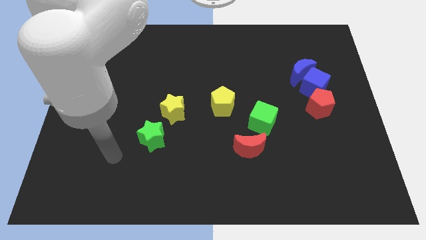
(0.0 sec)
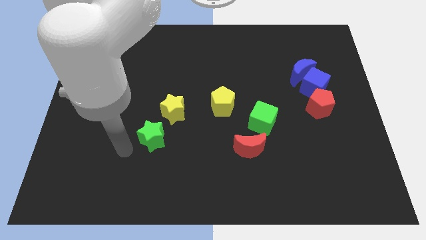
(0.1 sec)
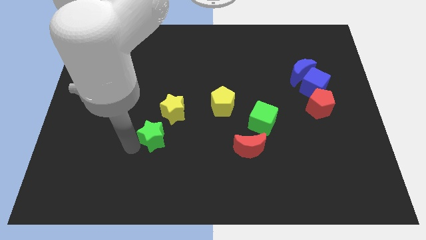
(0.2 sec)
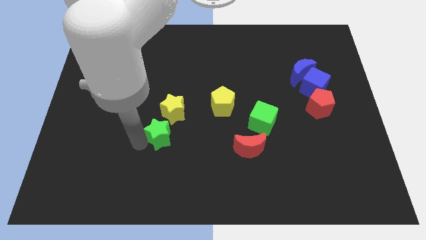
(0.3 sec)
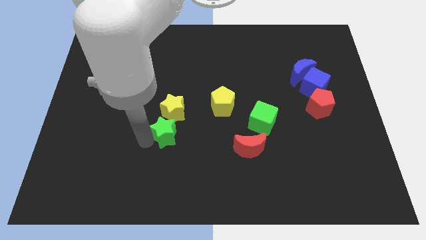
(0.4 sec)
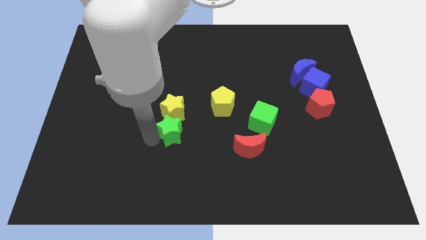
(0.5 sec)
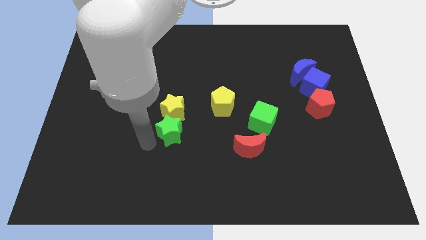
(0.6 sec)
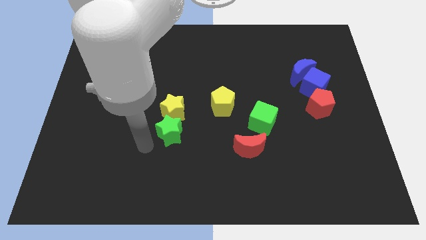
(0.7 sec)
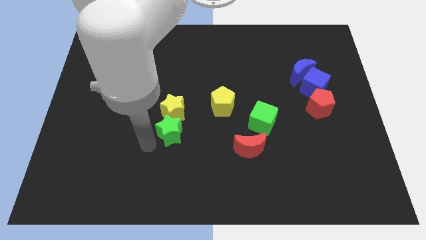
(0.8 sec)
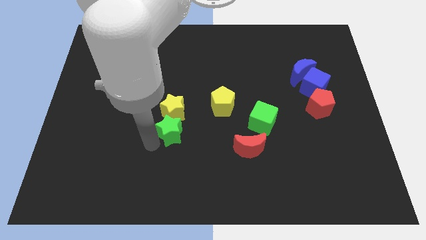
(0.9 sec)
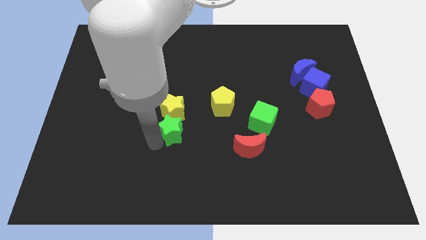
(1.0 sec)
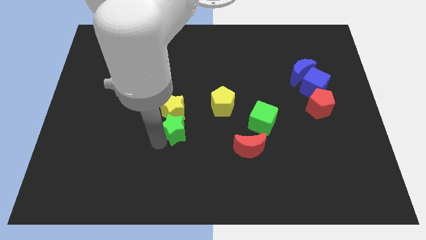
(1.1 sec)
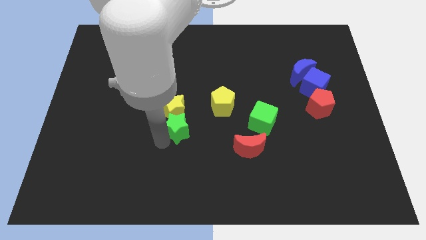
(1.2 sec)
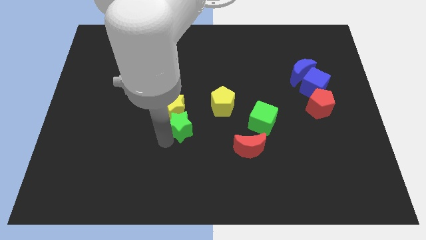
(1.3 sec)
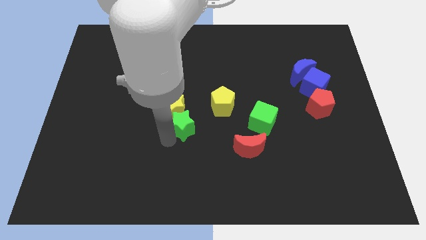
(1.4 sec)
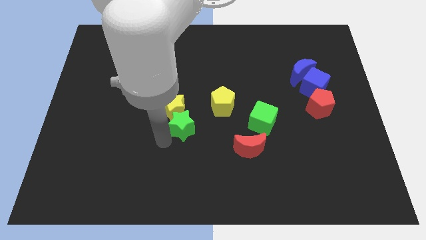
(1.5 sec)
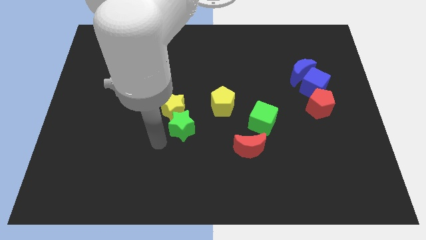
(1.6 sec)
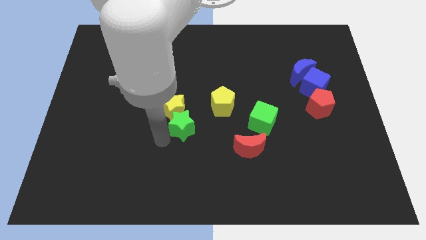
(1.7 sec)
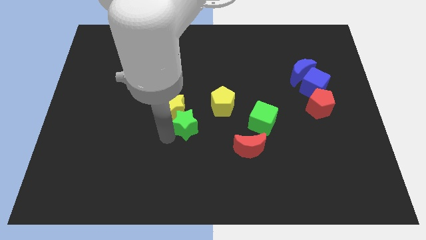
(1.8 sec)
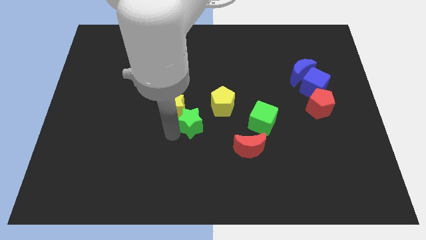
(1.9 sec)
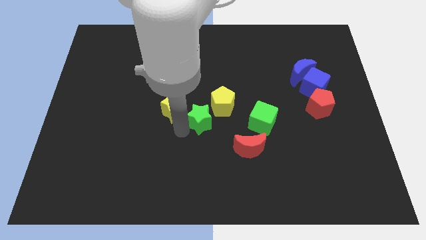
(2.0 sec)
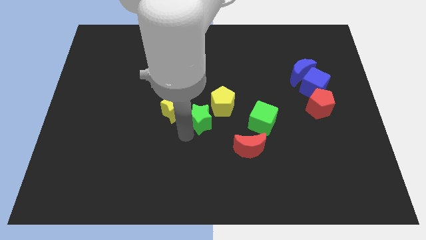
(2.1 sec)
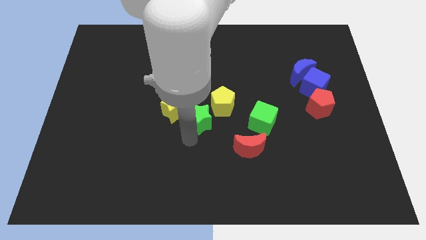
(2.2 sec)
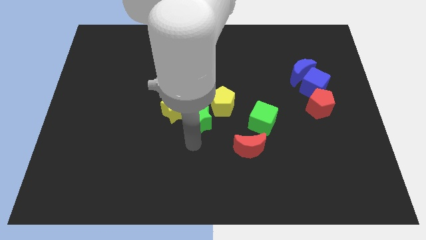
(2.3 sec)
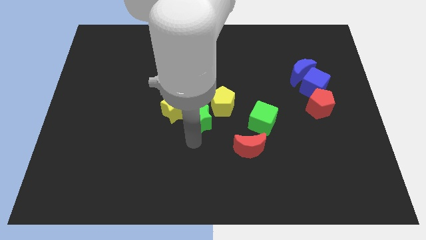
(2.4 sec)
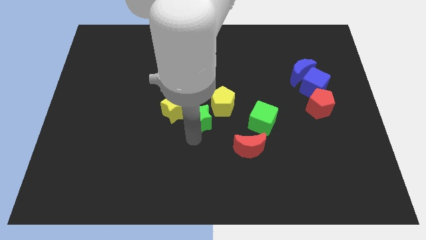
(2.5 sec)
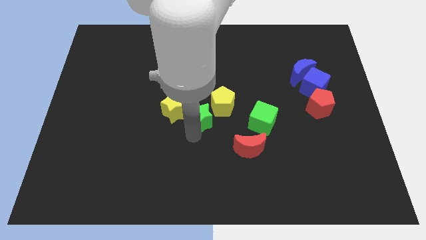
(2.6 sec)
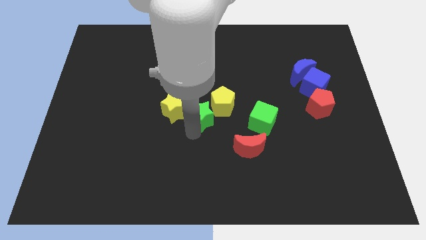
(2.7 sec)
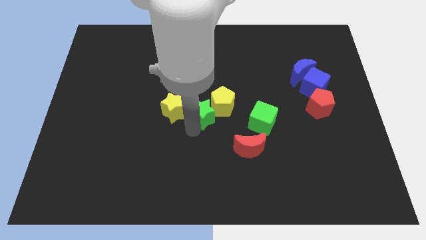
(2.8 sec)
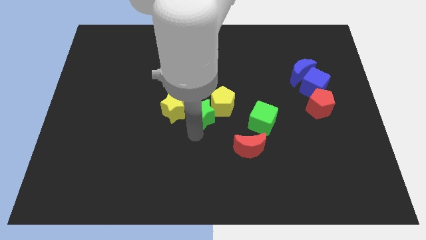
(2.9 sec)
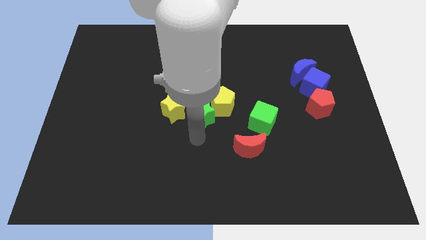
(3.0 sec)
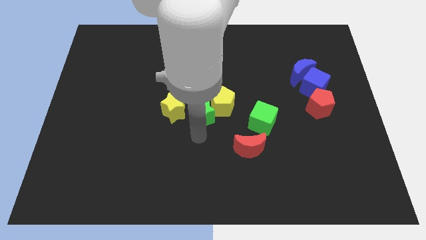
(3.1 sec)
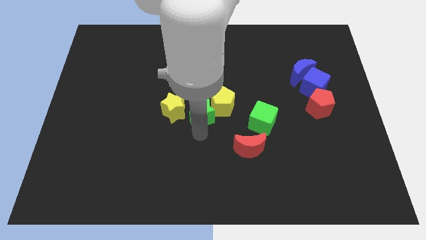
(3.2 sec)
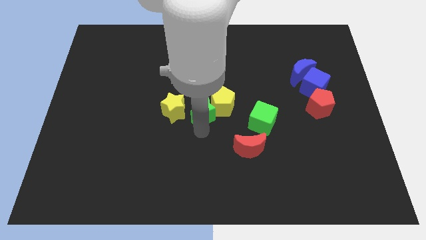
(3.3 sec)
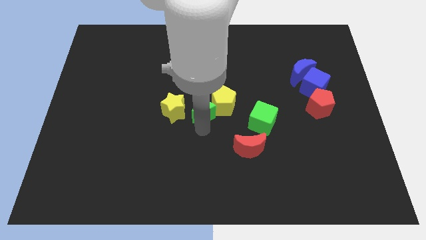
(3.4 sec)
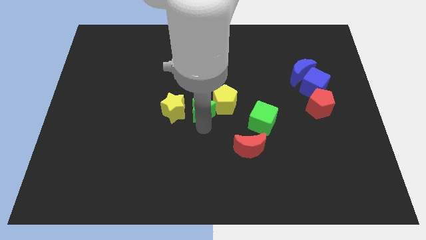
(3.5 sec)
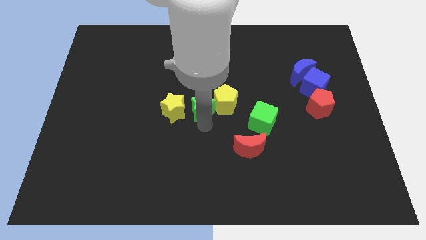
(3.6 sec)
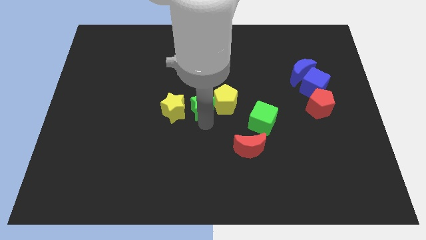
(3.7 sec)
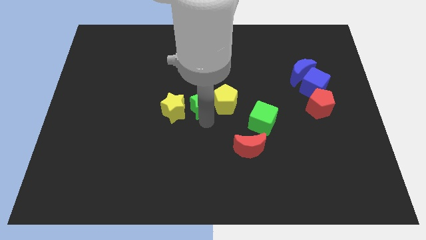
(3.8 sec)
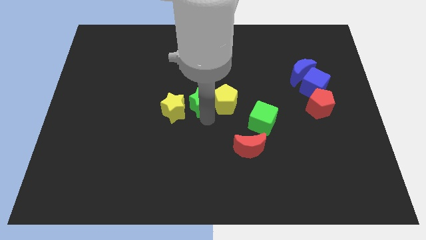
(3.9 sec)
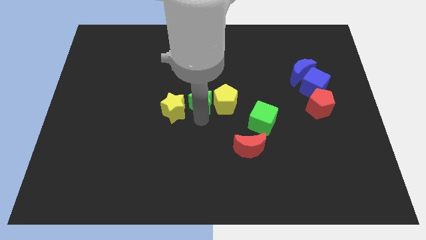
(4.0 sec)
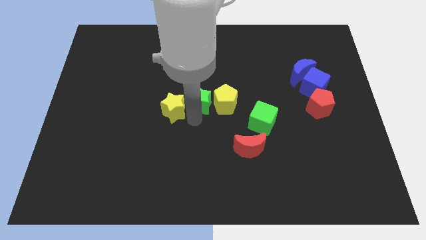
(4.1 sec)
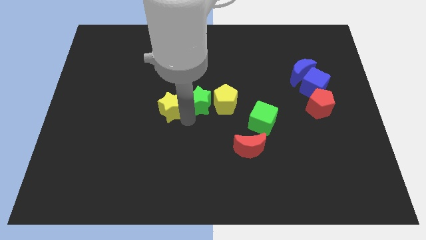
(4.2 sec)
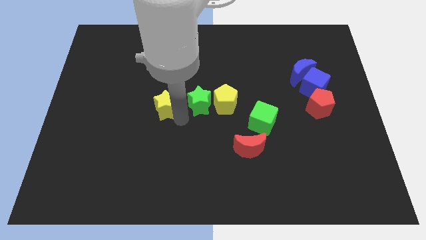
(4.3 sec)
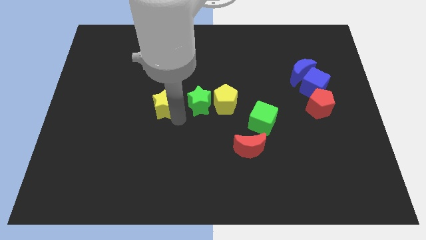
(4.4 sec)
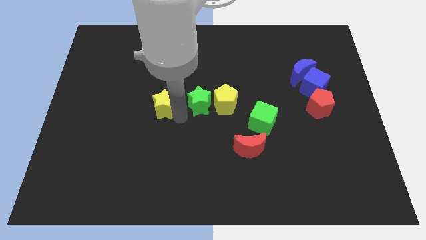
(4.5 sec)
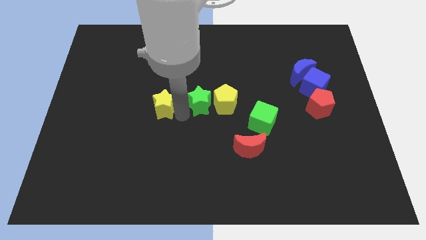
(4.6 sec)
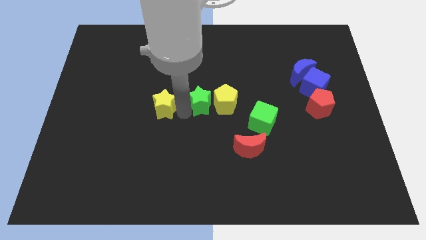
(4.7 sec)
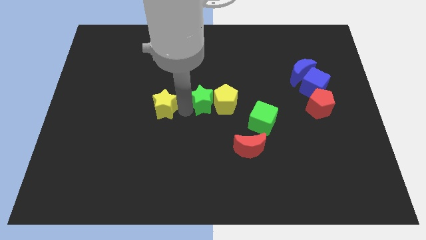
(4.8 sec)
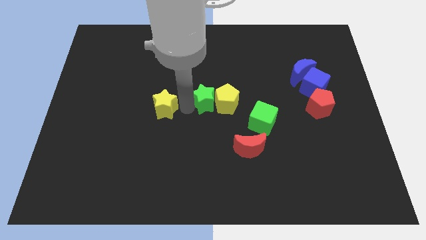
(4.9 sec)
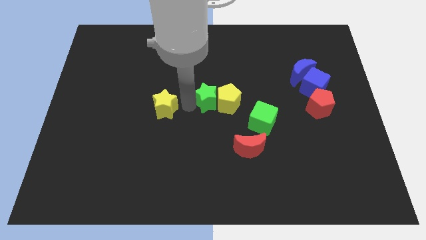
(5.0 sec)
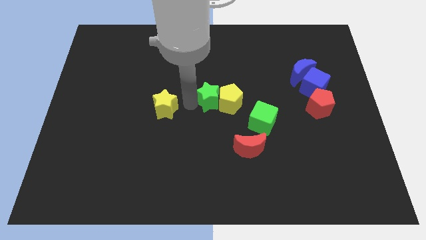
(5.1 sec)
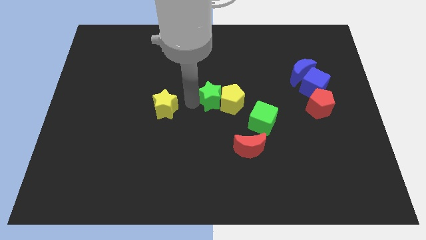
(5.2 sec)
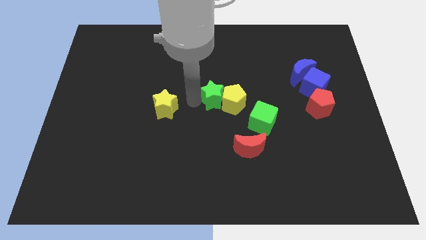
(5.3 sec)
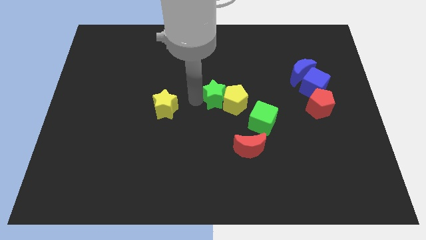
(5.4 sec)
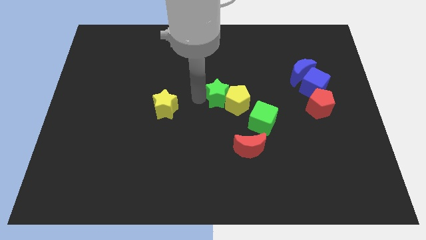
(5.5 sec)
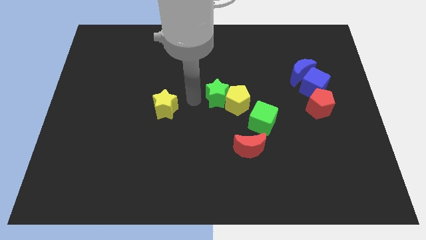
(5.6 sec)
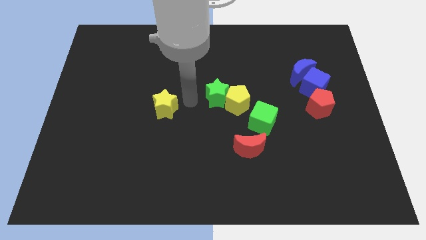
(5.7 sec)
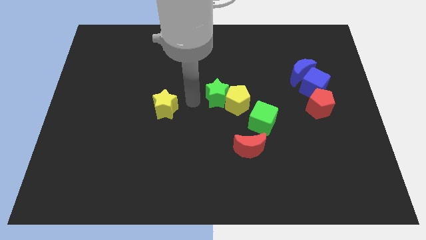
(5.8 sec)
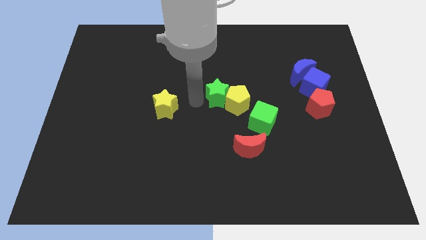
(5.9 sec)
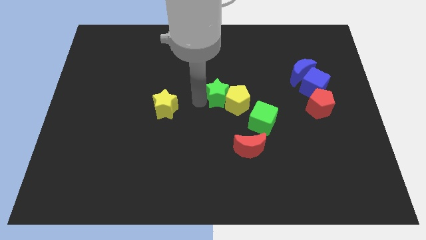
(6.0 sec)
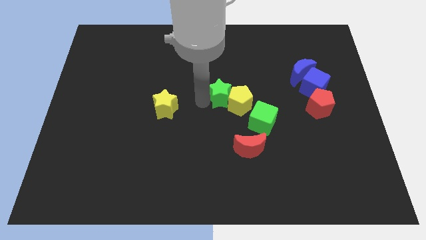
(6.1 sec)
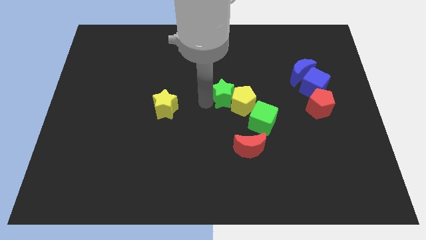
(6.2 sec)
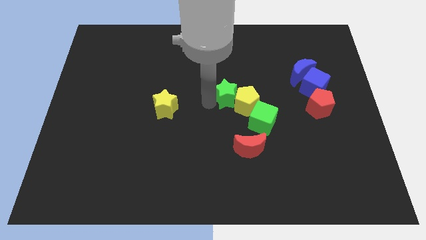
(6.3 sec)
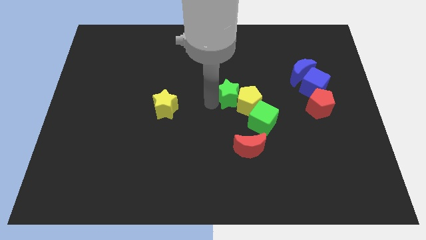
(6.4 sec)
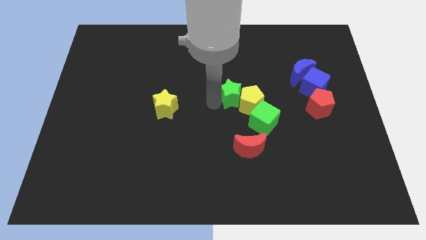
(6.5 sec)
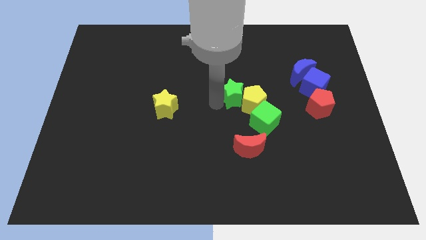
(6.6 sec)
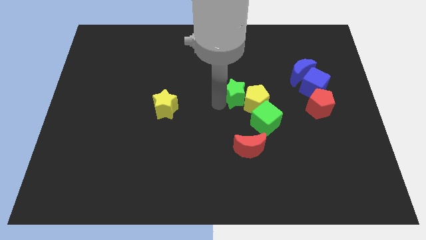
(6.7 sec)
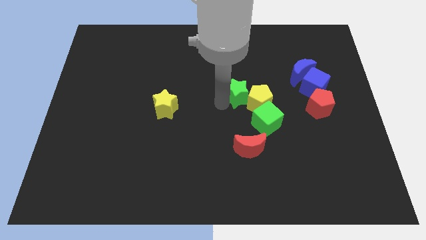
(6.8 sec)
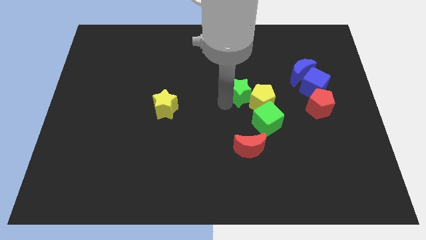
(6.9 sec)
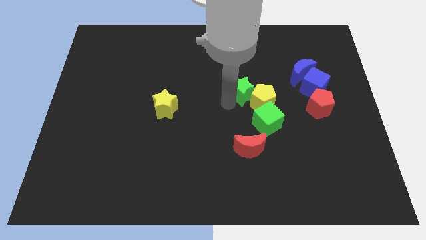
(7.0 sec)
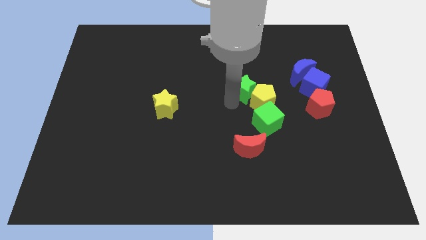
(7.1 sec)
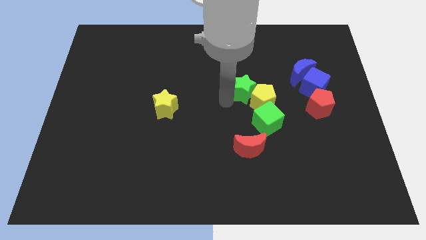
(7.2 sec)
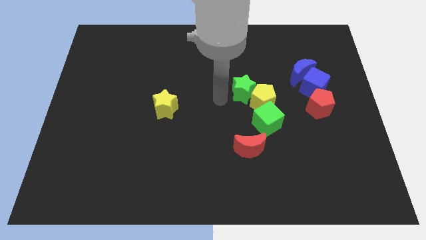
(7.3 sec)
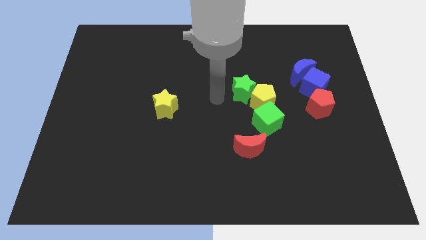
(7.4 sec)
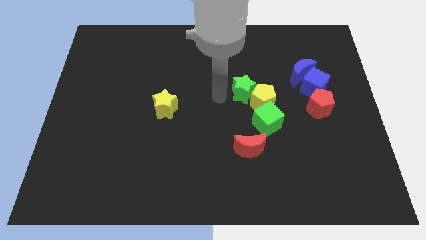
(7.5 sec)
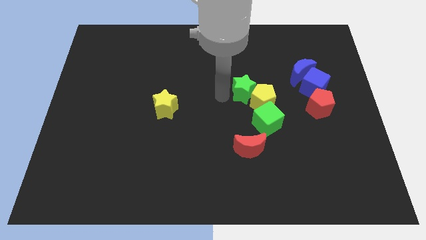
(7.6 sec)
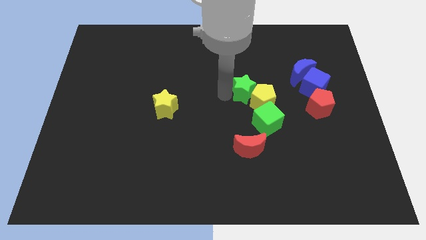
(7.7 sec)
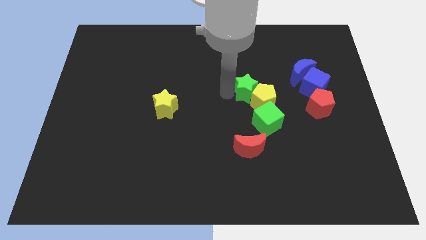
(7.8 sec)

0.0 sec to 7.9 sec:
slide the green star to the top side of the green cube
